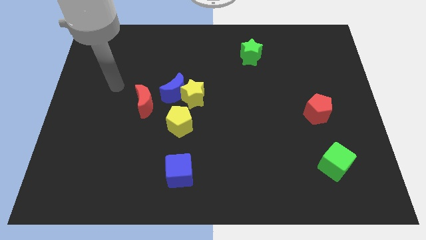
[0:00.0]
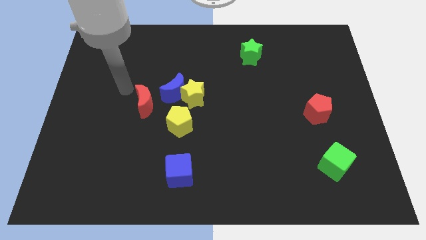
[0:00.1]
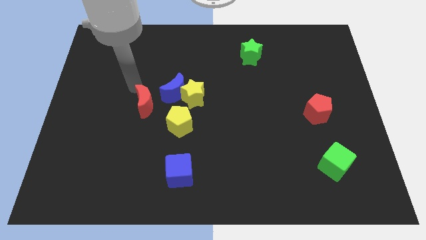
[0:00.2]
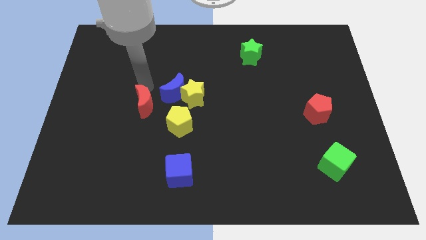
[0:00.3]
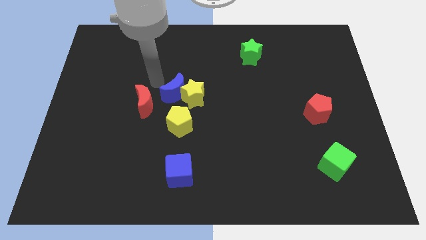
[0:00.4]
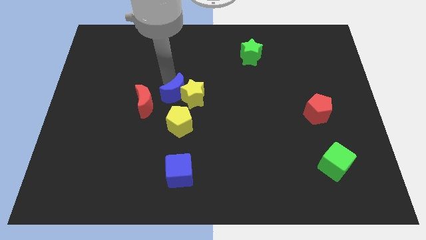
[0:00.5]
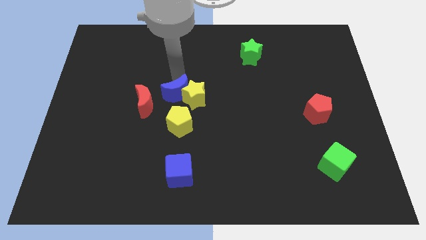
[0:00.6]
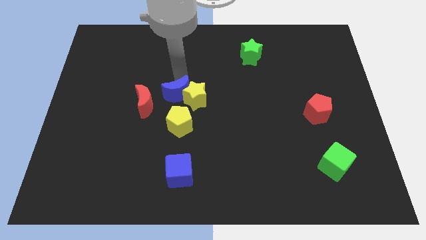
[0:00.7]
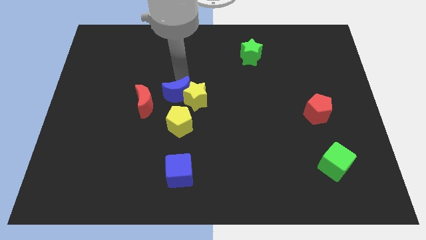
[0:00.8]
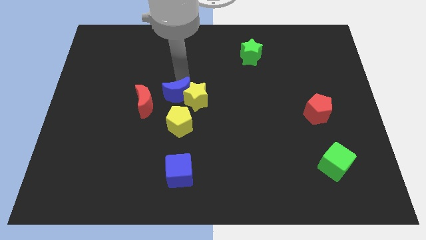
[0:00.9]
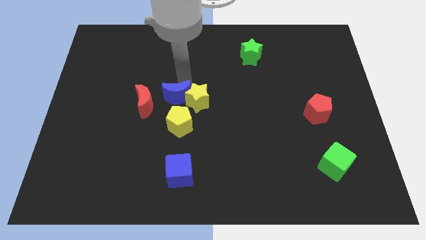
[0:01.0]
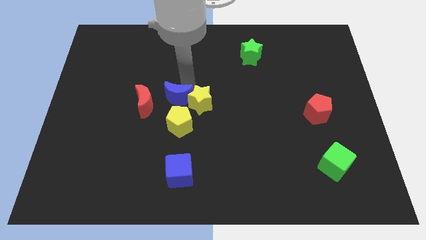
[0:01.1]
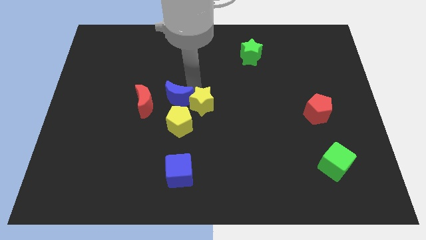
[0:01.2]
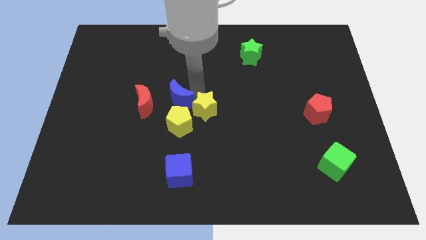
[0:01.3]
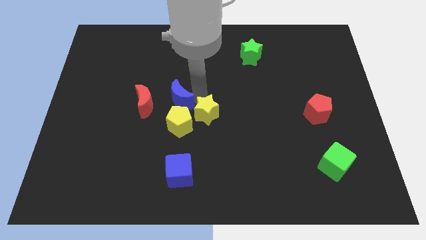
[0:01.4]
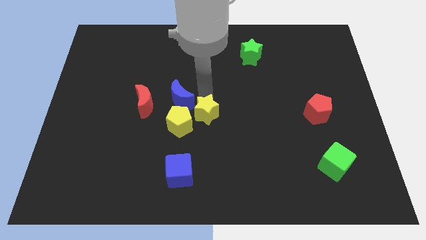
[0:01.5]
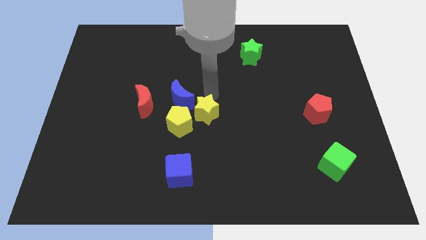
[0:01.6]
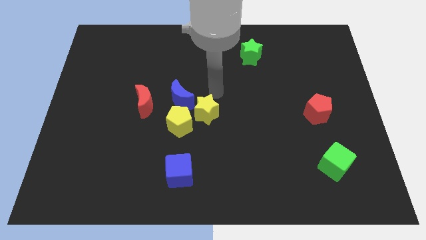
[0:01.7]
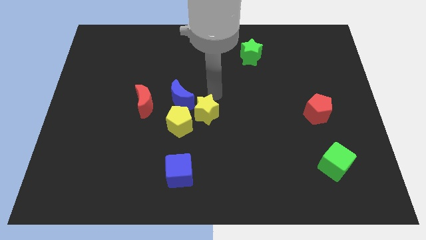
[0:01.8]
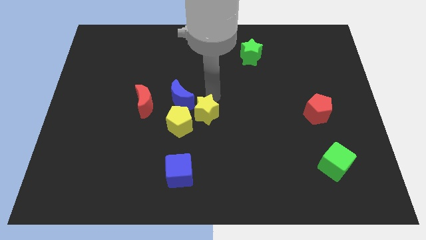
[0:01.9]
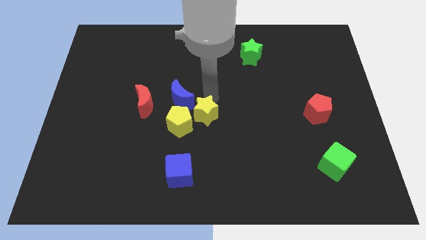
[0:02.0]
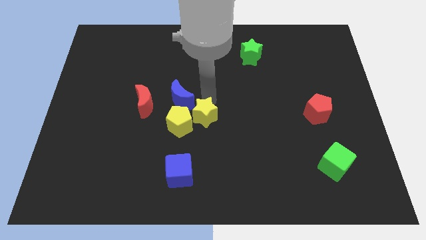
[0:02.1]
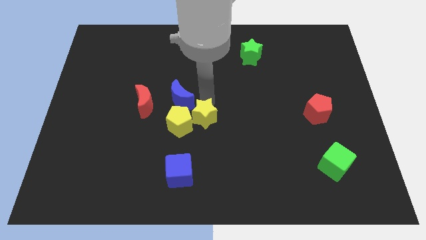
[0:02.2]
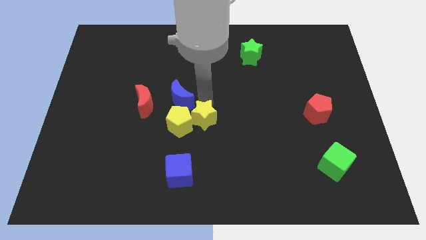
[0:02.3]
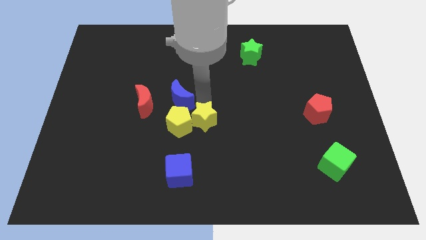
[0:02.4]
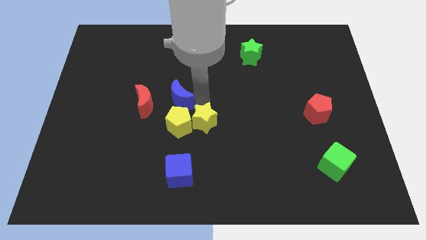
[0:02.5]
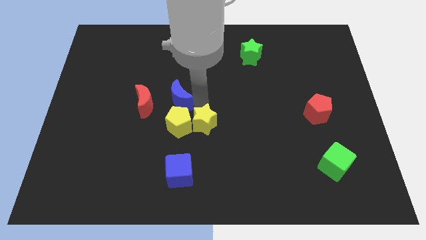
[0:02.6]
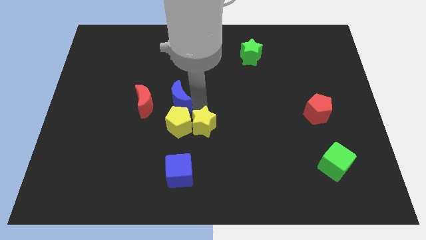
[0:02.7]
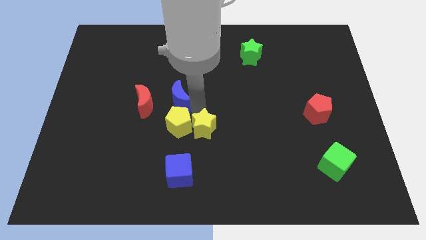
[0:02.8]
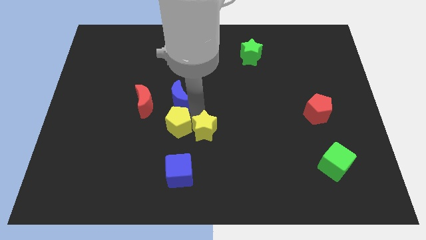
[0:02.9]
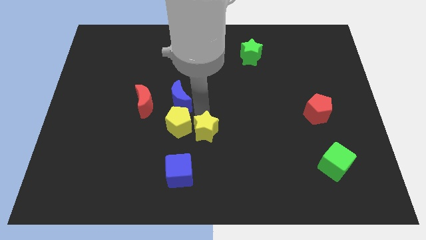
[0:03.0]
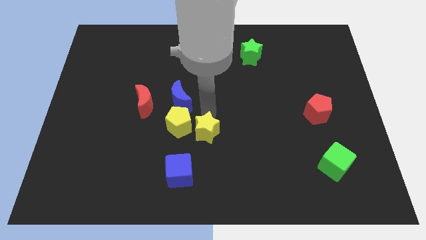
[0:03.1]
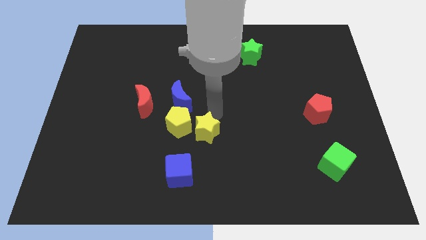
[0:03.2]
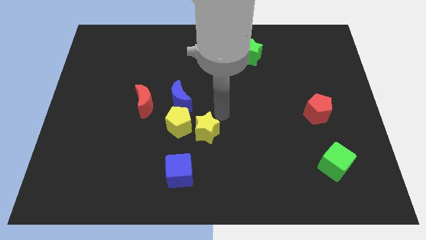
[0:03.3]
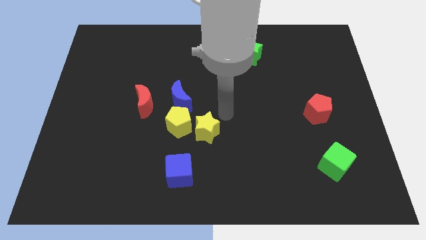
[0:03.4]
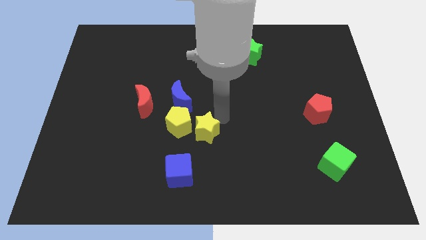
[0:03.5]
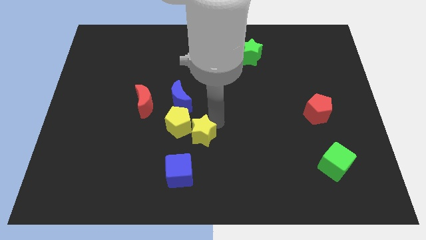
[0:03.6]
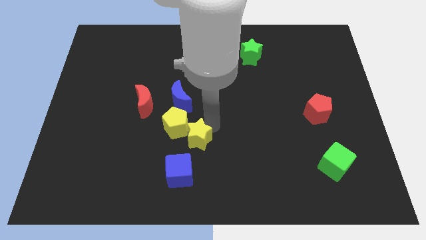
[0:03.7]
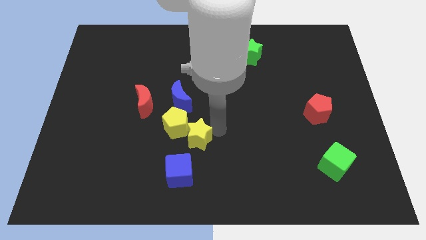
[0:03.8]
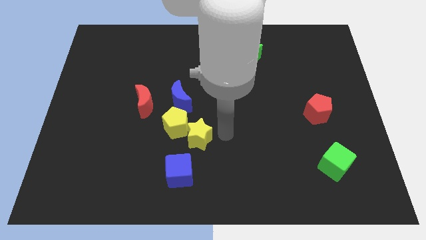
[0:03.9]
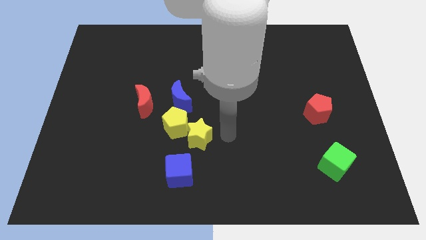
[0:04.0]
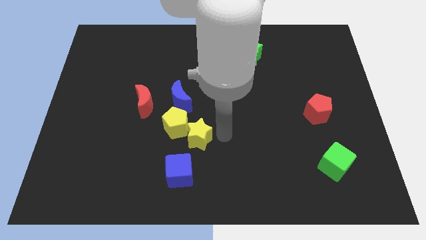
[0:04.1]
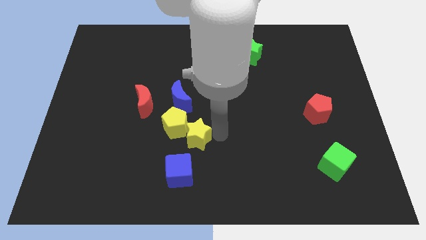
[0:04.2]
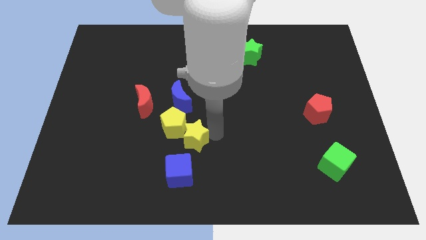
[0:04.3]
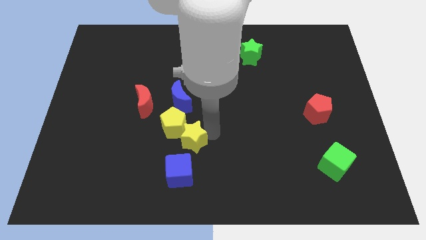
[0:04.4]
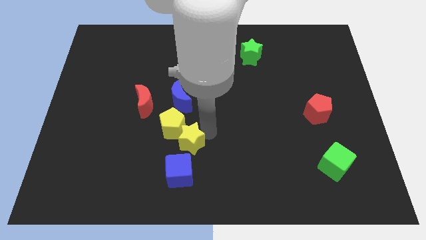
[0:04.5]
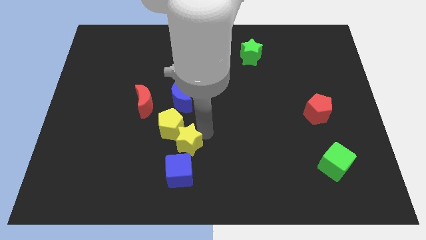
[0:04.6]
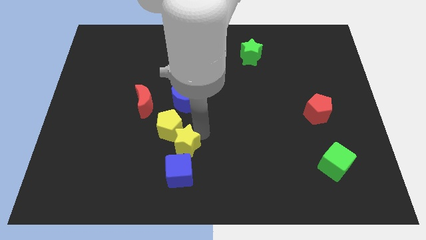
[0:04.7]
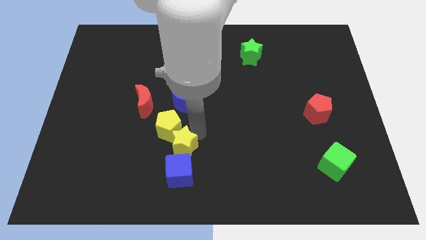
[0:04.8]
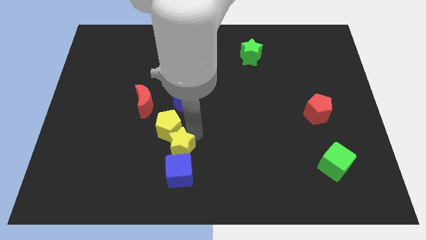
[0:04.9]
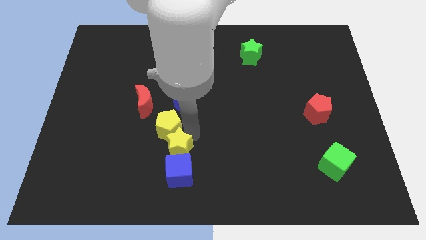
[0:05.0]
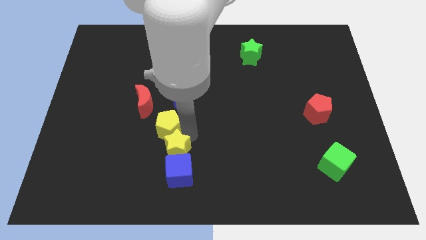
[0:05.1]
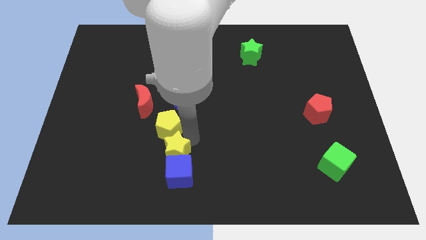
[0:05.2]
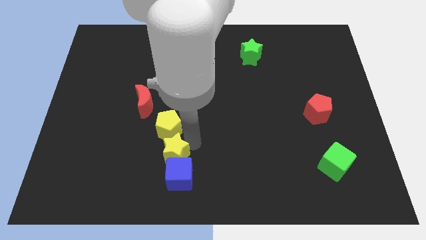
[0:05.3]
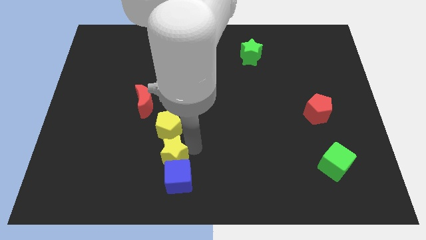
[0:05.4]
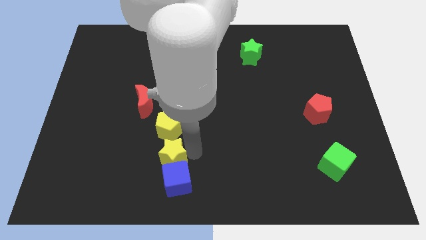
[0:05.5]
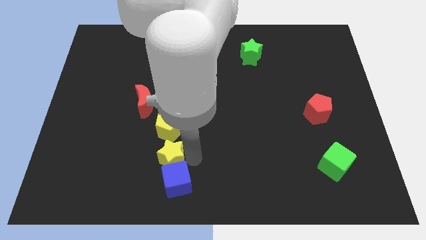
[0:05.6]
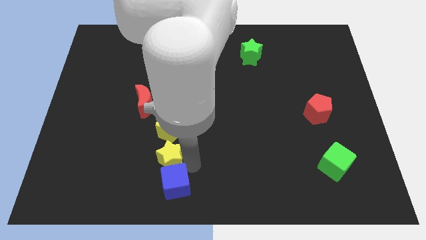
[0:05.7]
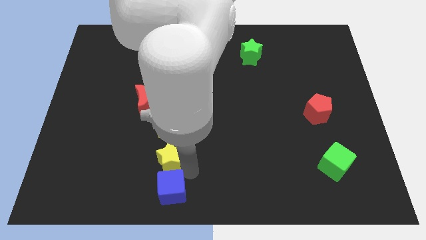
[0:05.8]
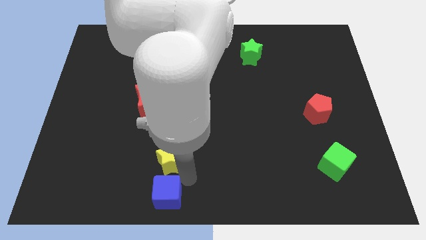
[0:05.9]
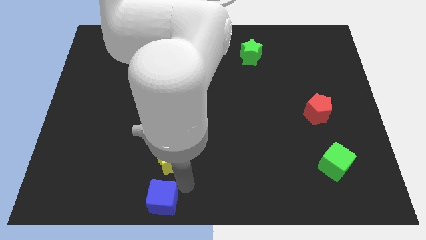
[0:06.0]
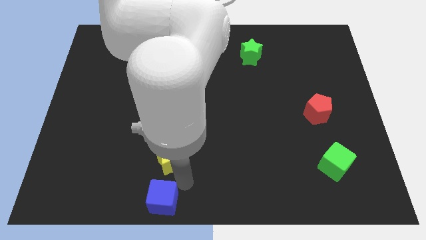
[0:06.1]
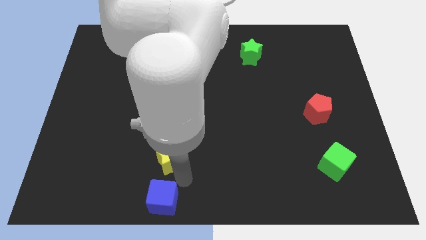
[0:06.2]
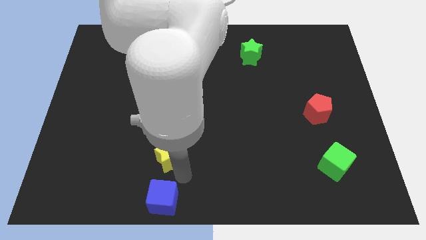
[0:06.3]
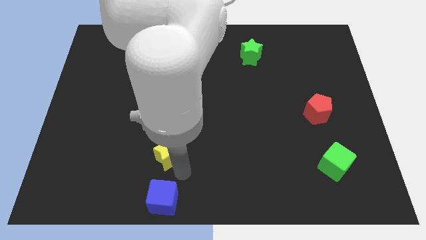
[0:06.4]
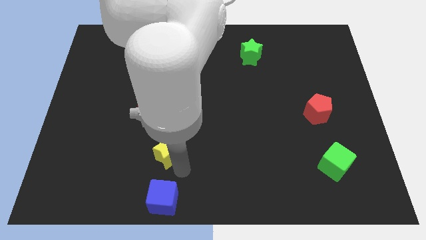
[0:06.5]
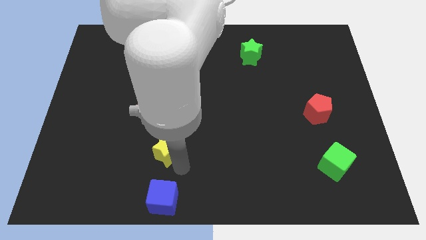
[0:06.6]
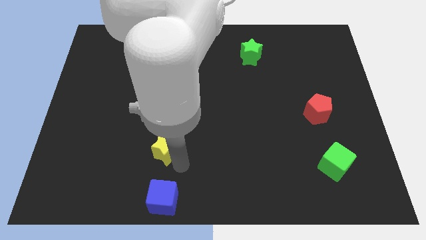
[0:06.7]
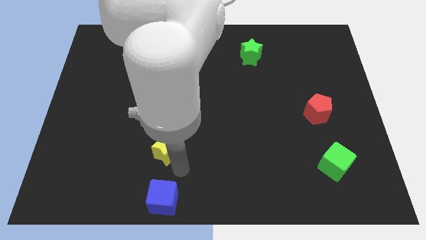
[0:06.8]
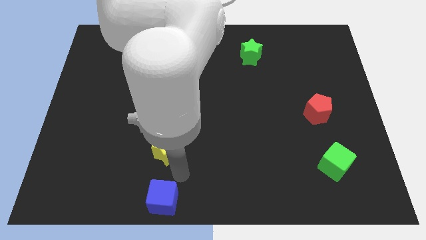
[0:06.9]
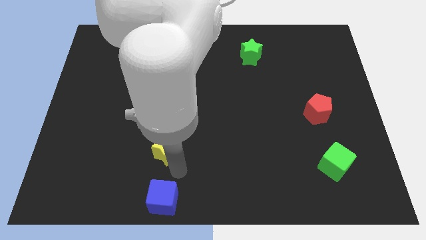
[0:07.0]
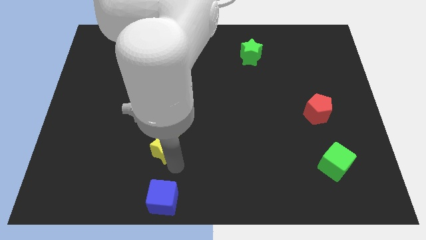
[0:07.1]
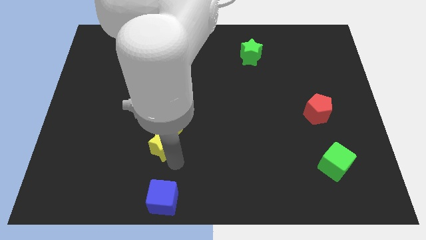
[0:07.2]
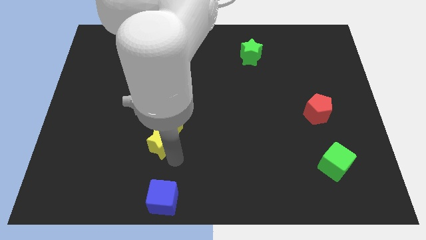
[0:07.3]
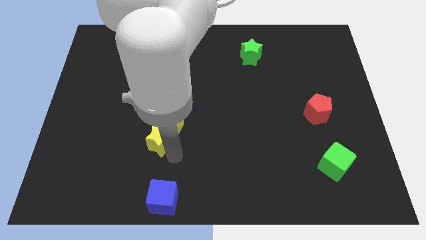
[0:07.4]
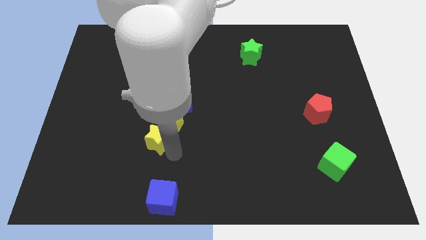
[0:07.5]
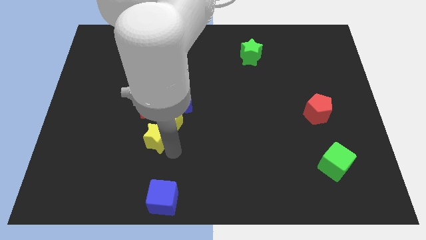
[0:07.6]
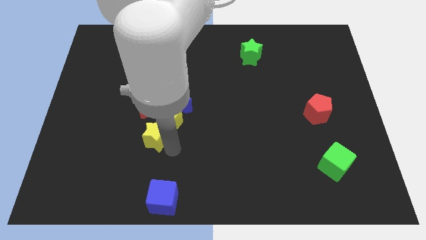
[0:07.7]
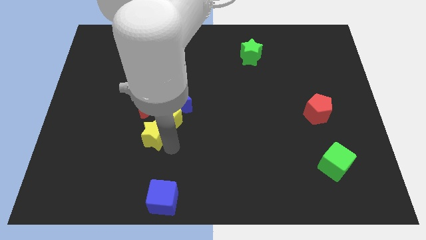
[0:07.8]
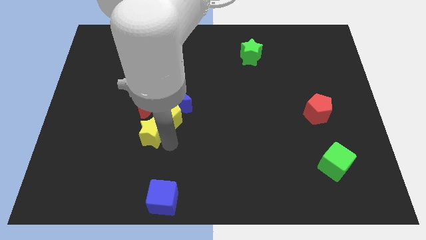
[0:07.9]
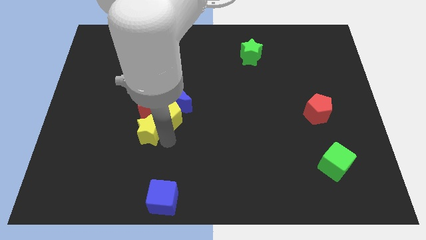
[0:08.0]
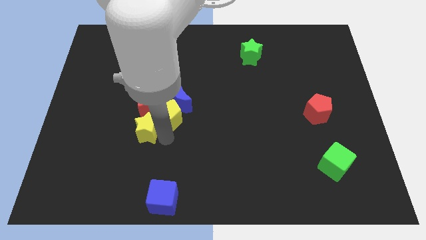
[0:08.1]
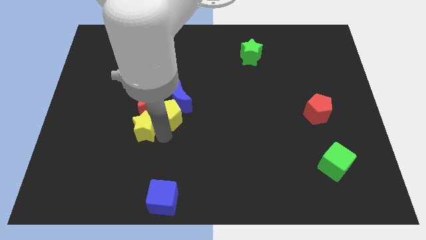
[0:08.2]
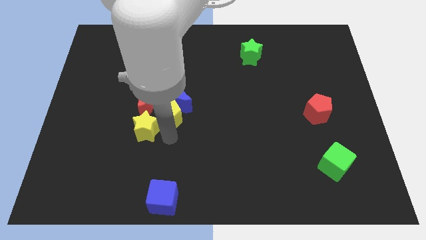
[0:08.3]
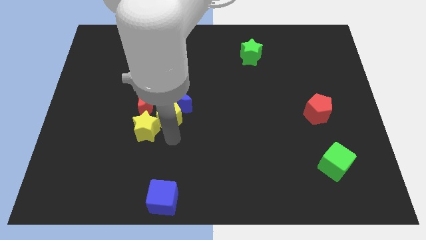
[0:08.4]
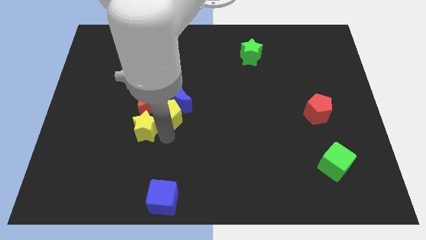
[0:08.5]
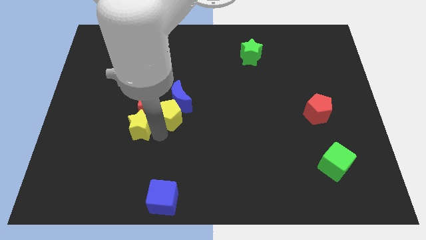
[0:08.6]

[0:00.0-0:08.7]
push the yellow star diagonally down and to the left of the red moon
